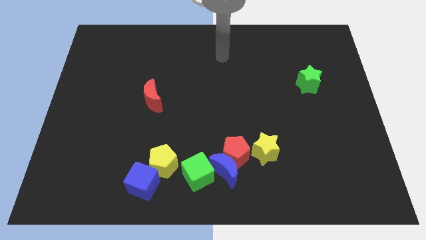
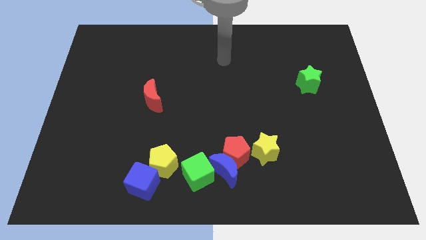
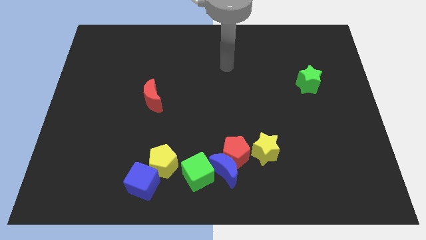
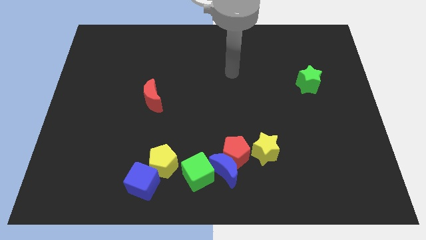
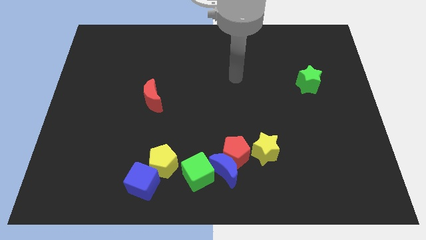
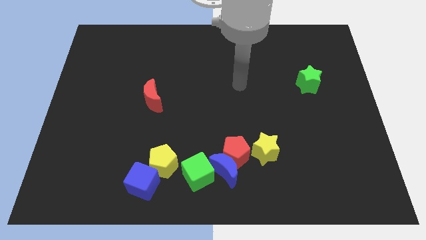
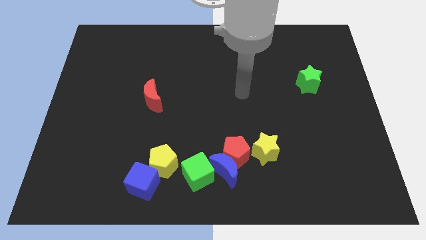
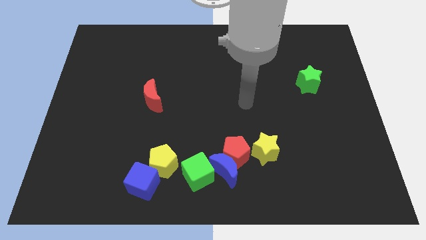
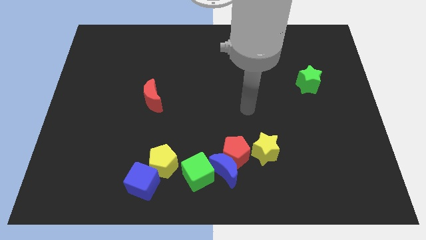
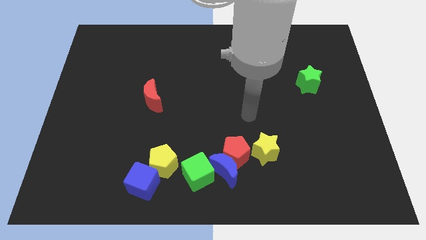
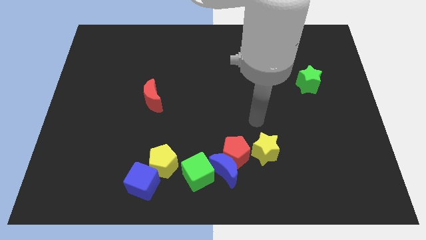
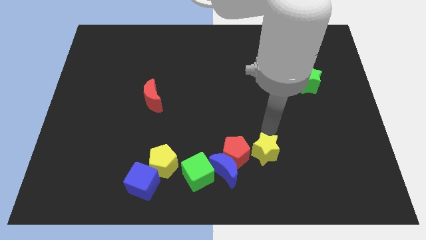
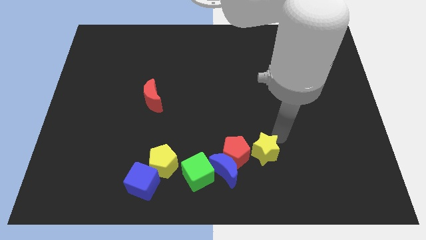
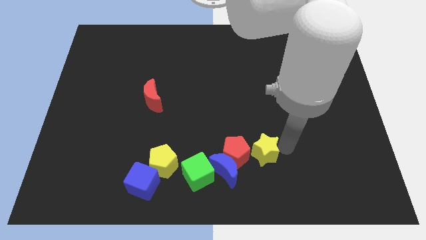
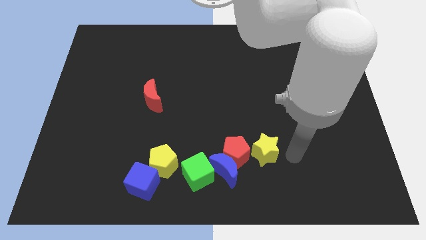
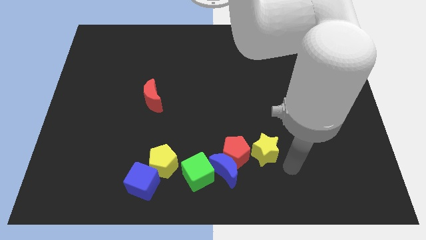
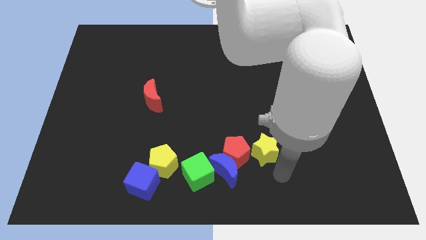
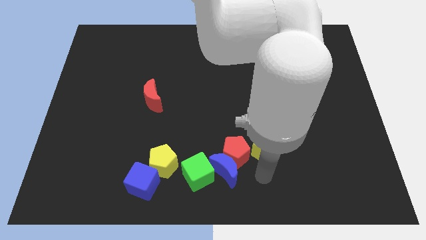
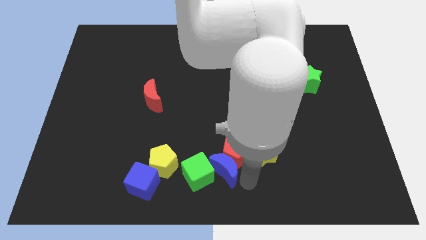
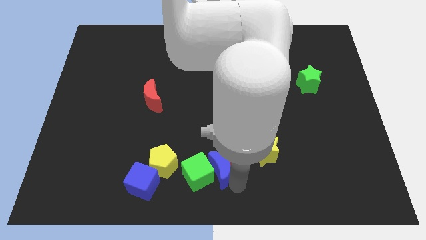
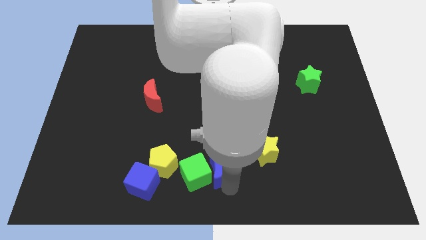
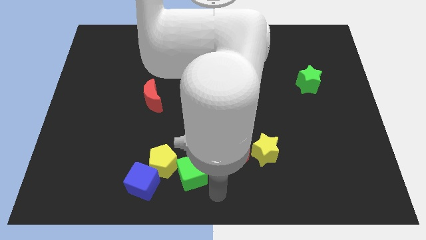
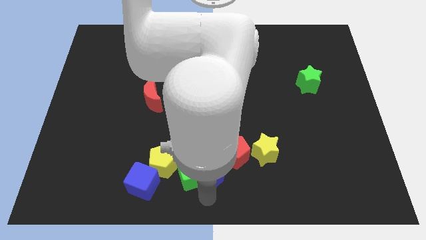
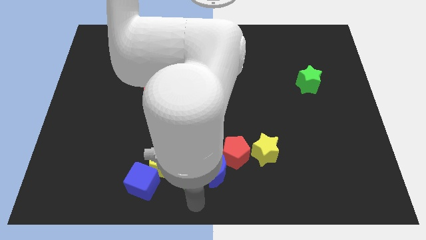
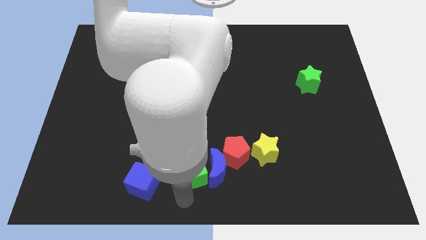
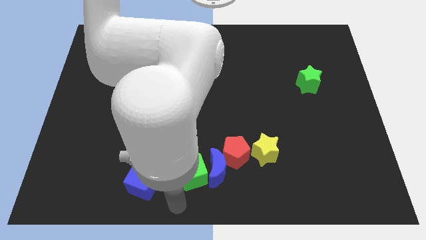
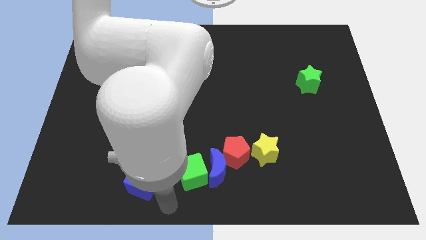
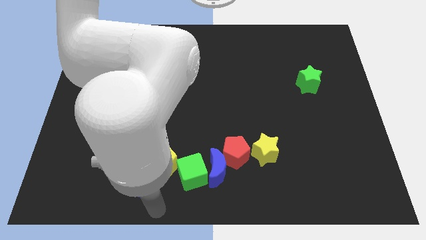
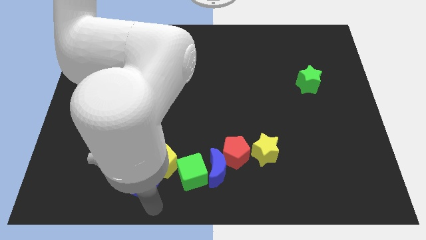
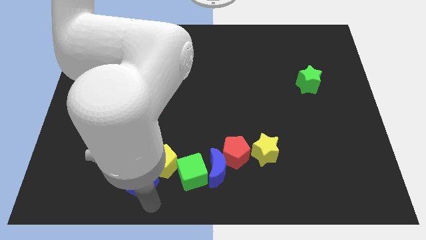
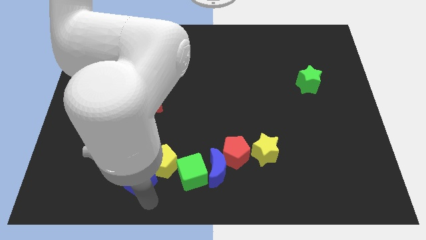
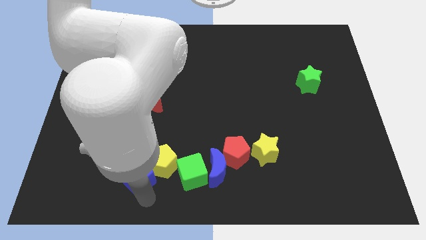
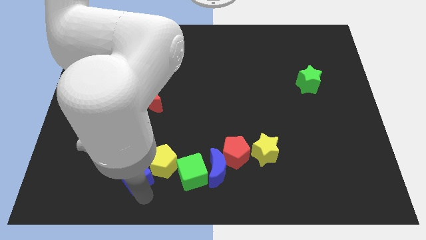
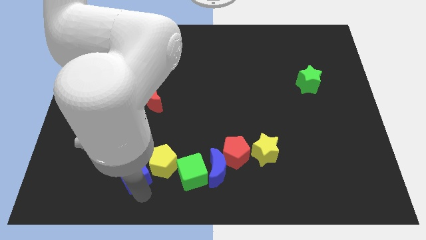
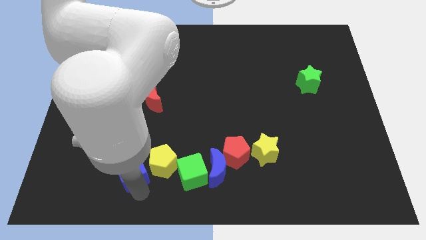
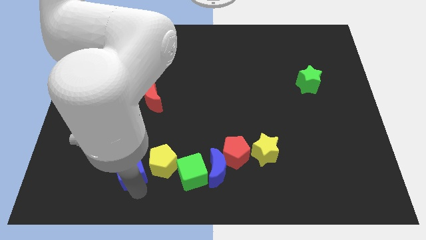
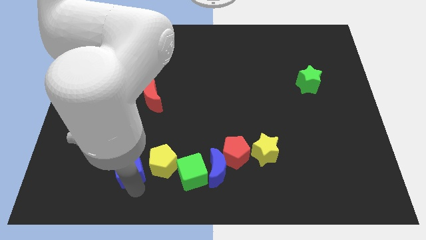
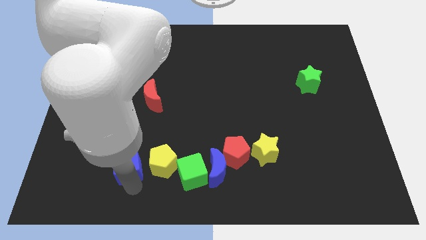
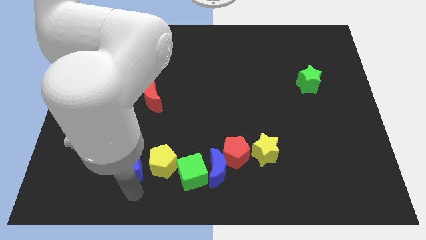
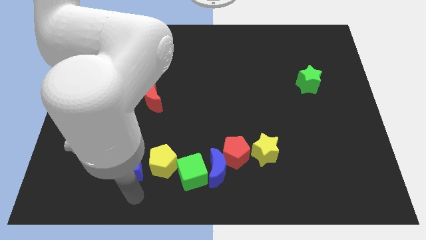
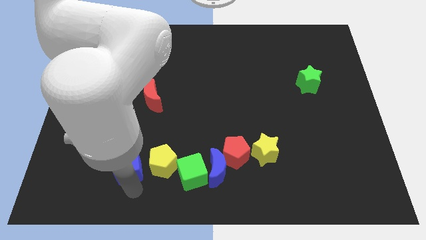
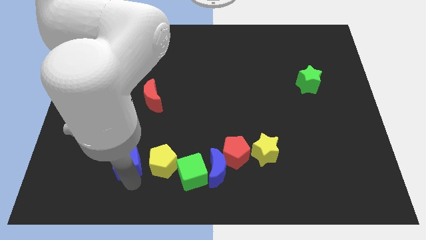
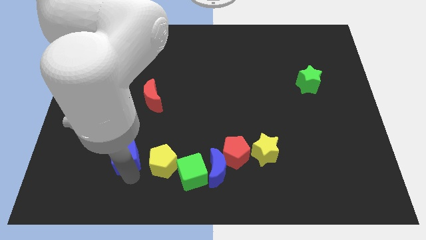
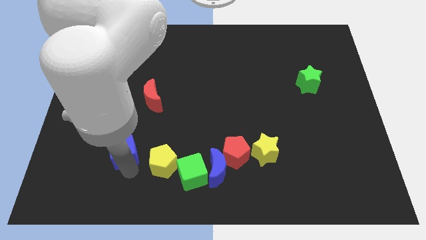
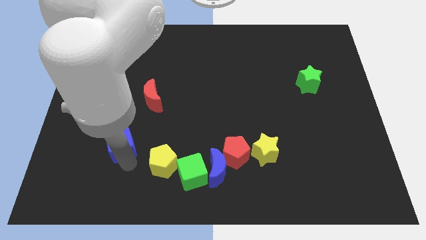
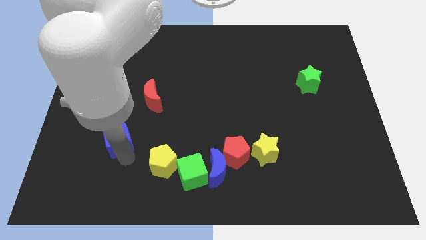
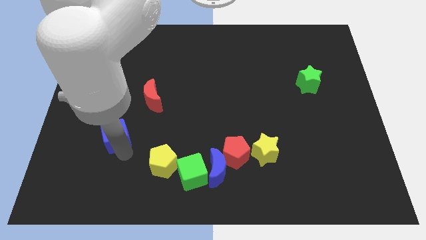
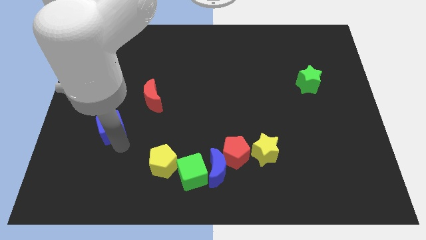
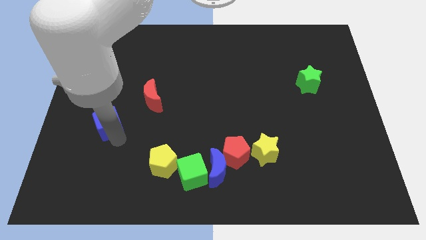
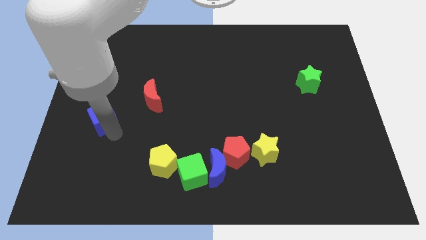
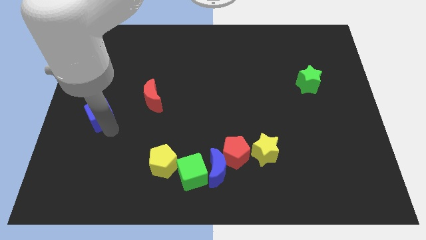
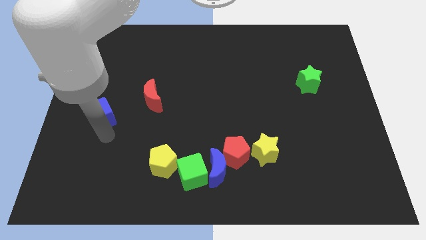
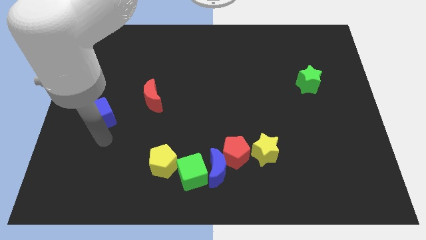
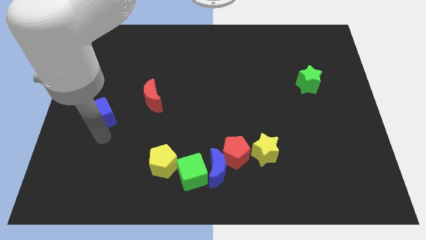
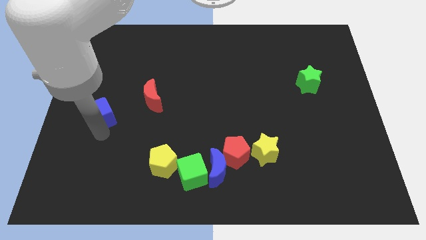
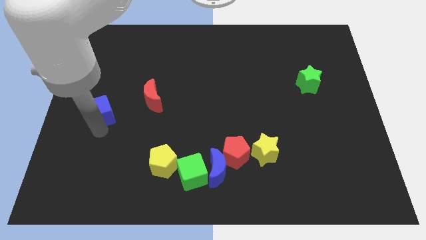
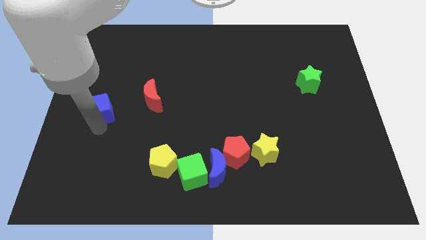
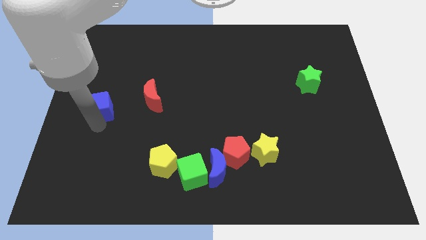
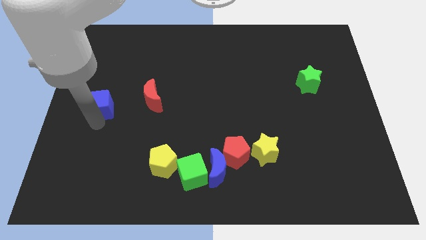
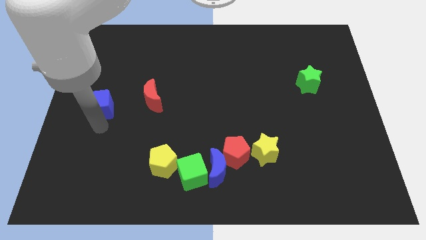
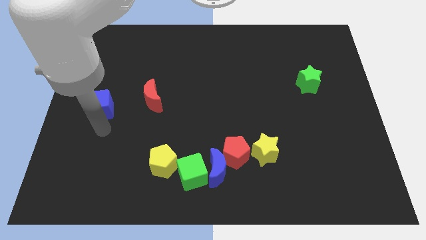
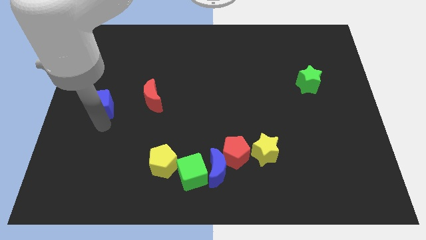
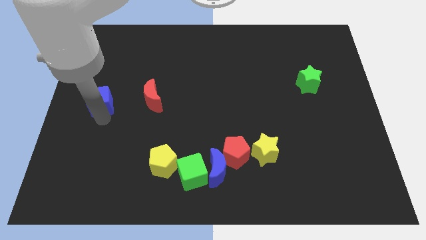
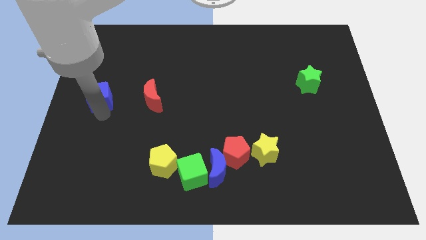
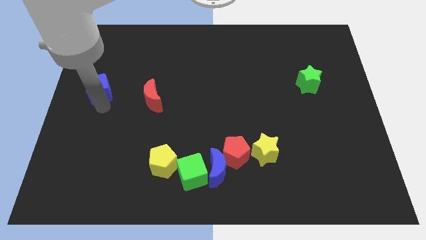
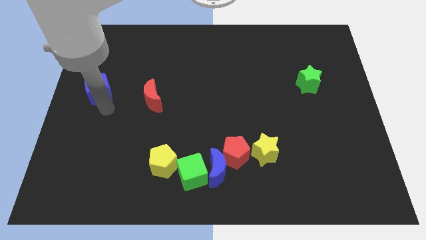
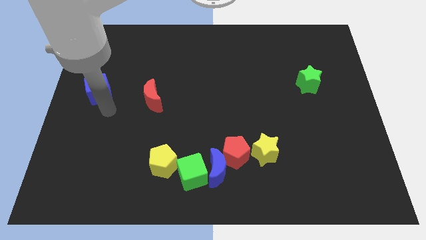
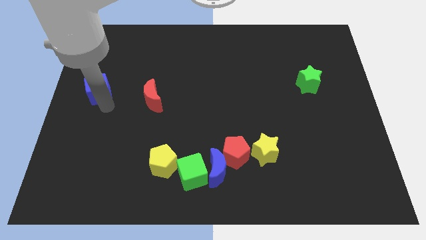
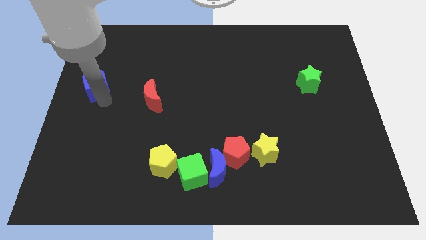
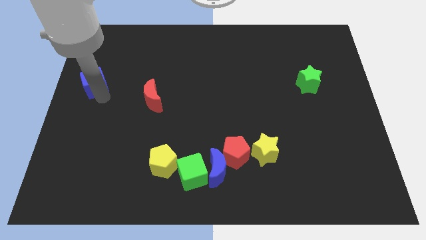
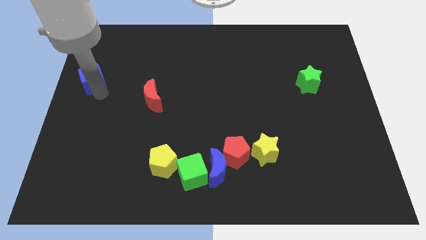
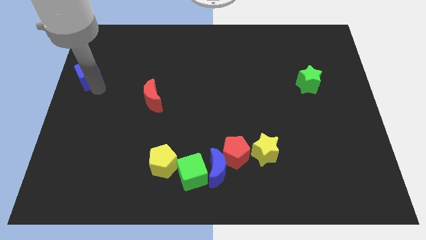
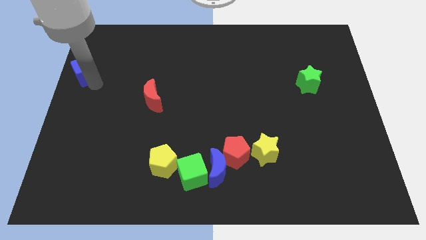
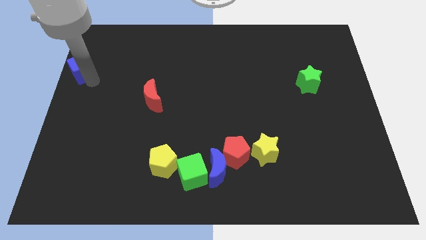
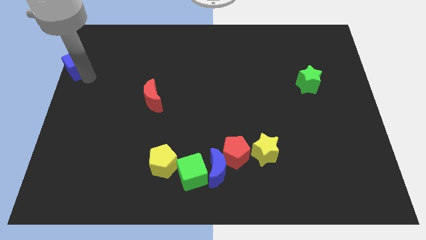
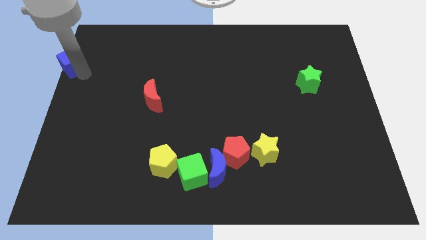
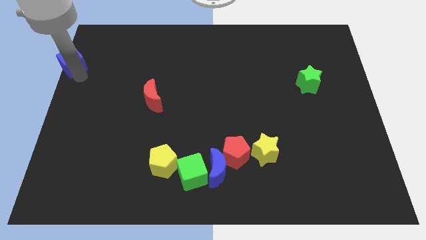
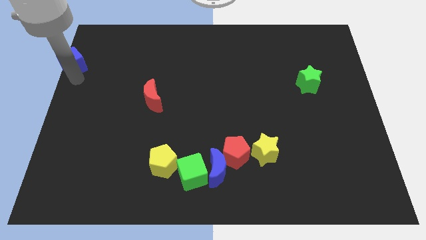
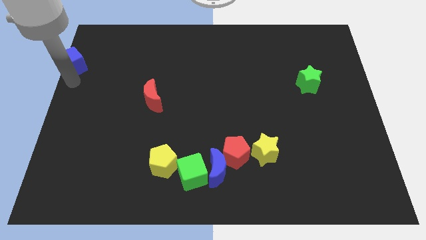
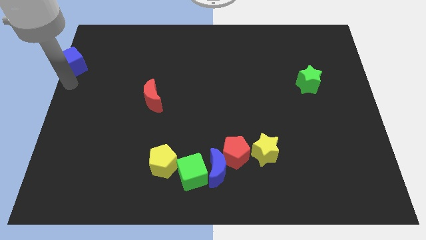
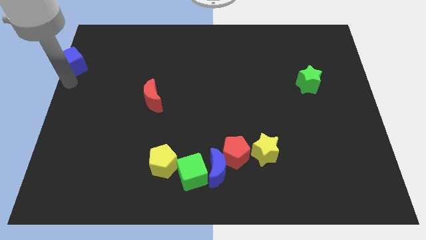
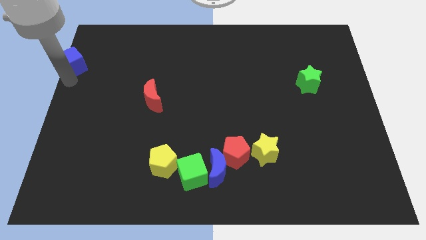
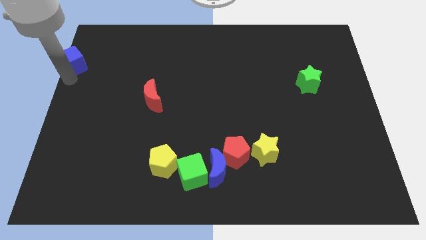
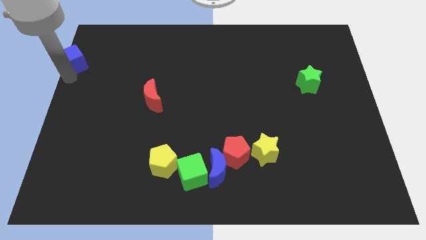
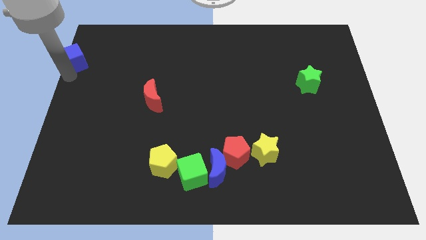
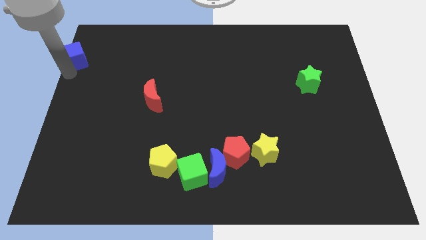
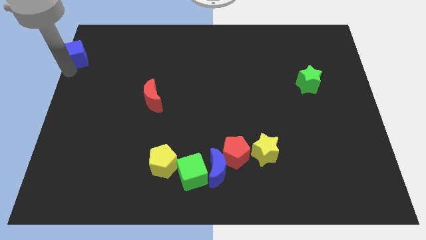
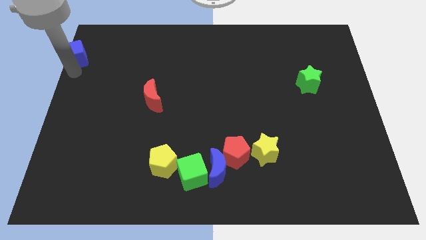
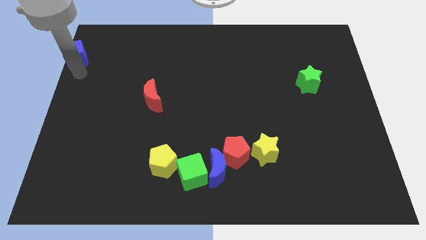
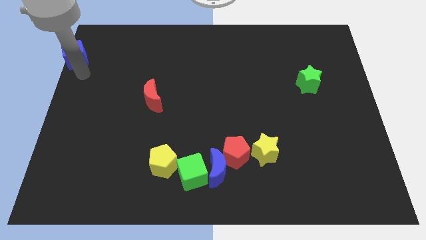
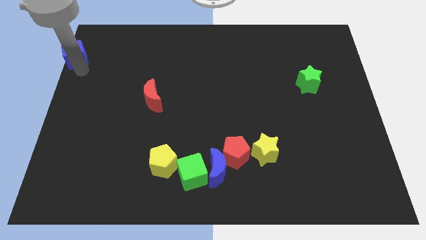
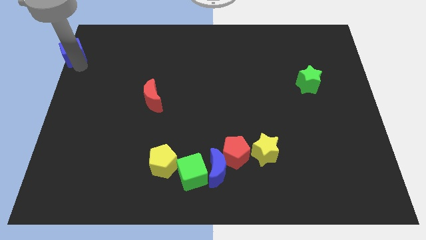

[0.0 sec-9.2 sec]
move the blue cube to the top left of the board
